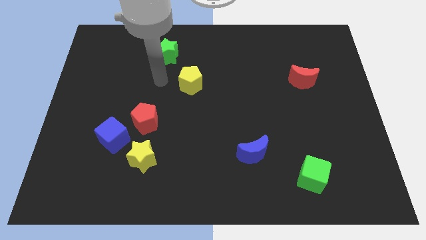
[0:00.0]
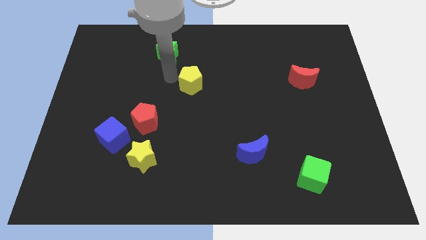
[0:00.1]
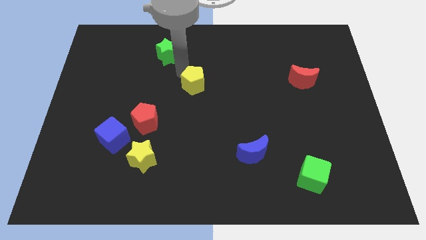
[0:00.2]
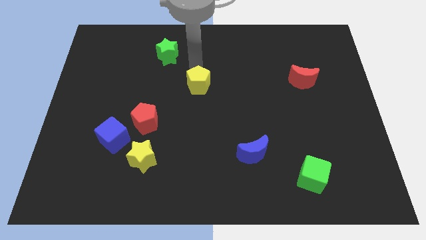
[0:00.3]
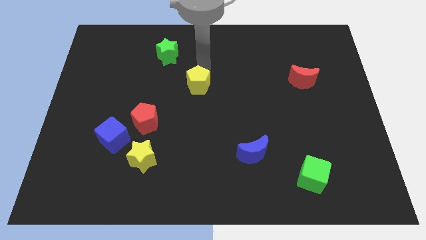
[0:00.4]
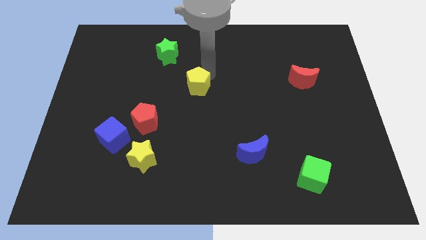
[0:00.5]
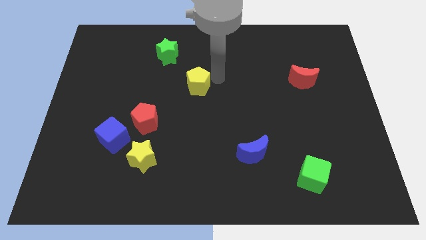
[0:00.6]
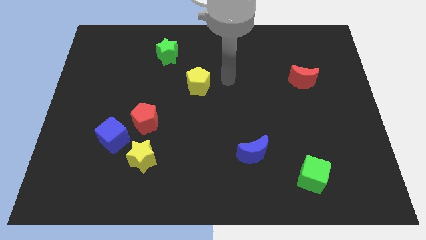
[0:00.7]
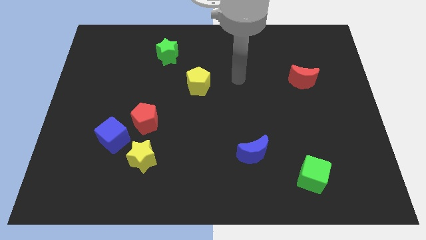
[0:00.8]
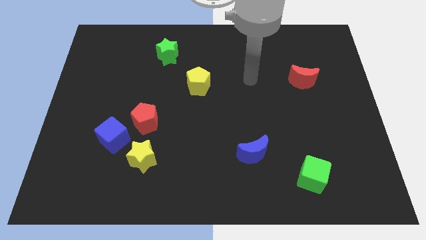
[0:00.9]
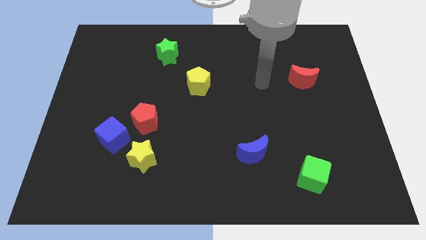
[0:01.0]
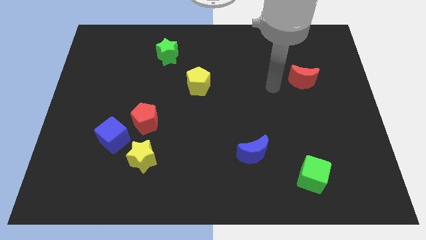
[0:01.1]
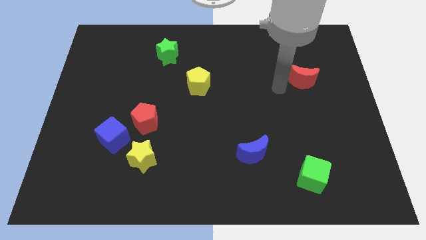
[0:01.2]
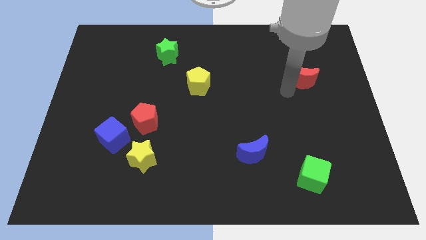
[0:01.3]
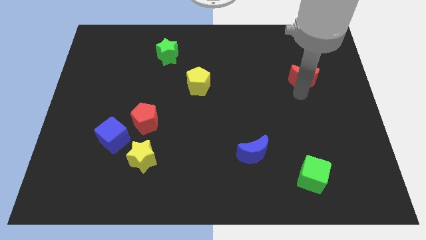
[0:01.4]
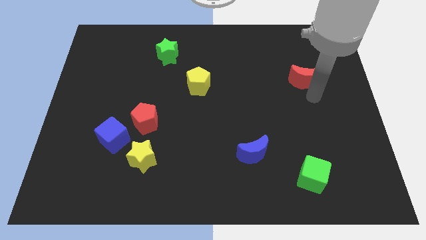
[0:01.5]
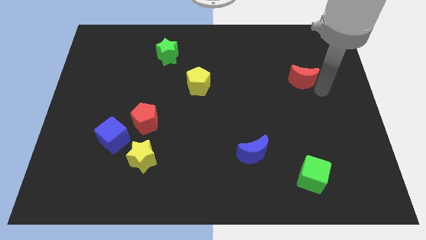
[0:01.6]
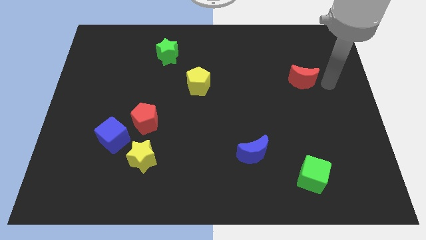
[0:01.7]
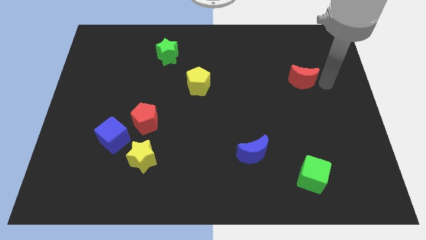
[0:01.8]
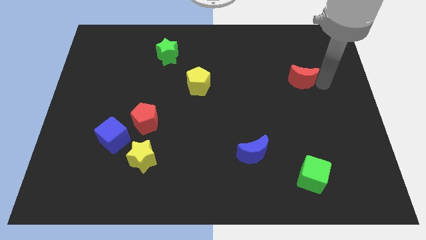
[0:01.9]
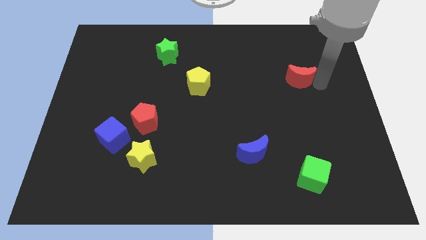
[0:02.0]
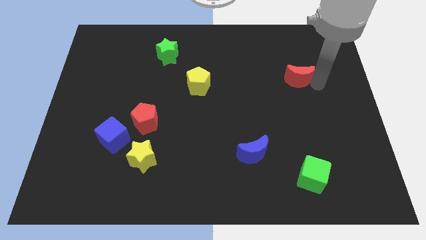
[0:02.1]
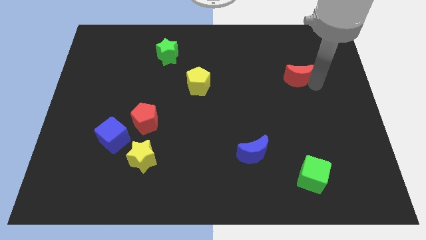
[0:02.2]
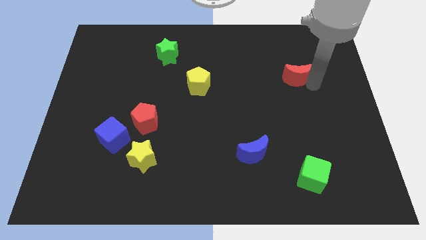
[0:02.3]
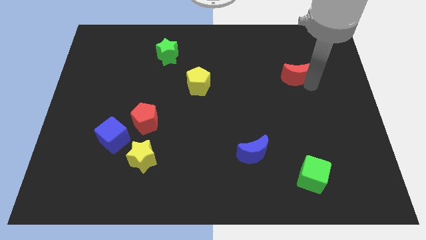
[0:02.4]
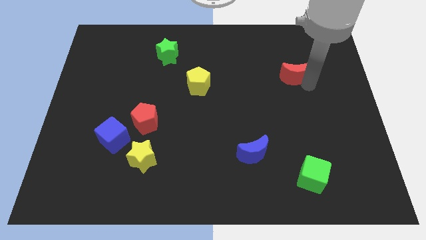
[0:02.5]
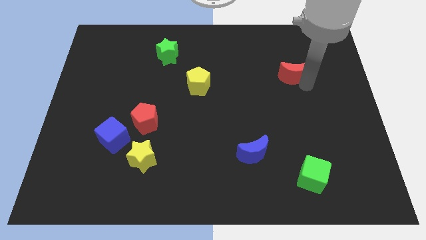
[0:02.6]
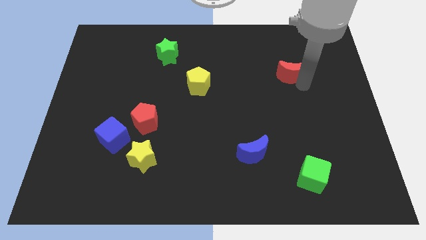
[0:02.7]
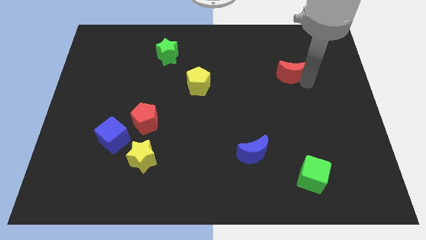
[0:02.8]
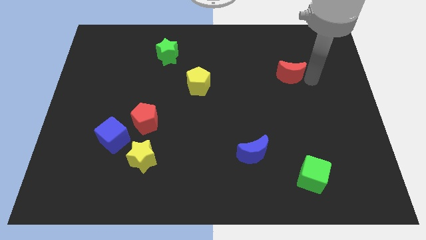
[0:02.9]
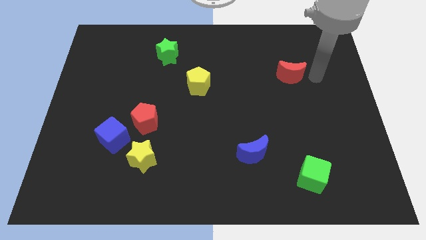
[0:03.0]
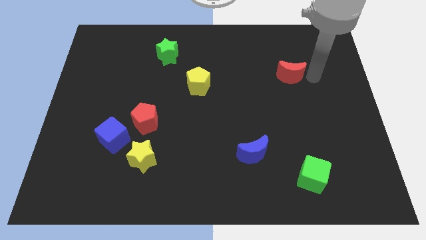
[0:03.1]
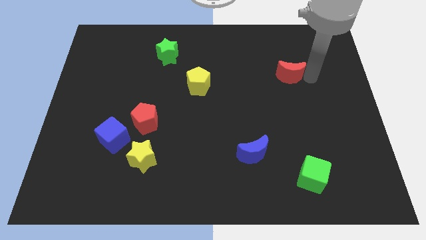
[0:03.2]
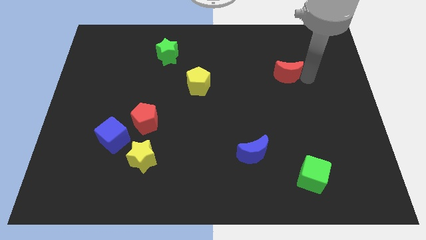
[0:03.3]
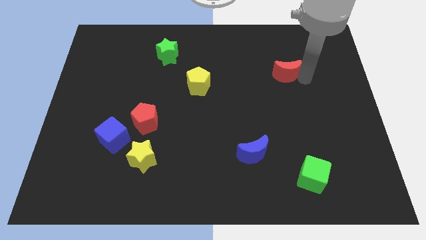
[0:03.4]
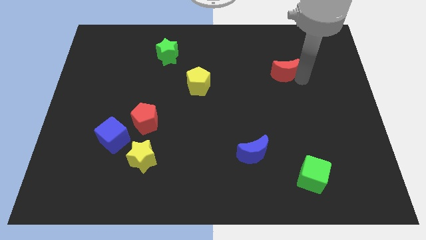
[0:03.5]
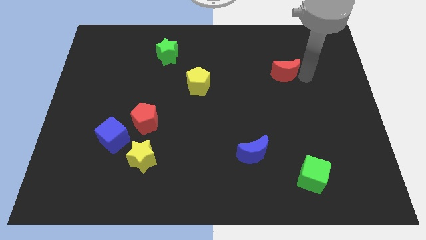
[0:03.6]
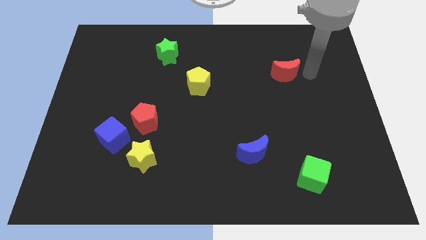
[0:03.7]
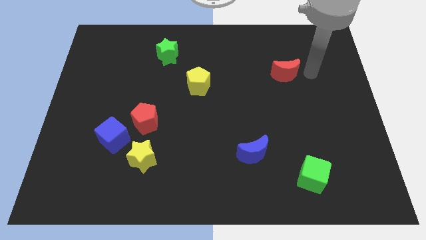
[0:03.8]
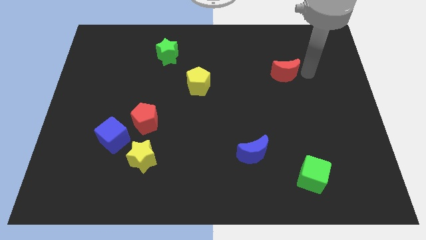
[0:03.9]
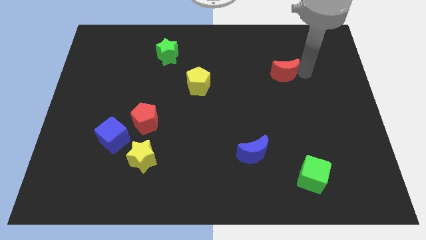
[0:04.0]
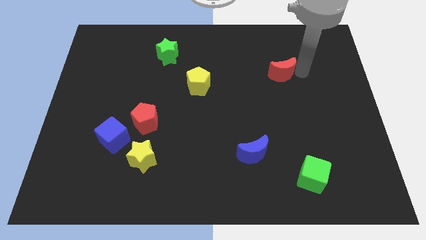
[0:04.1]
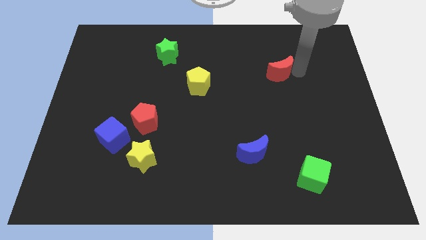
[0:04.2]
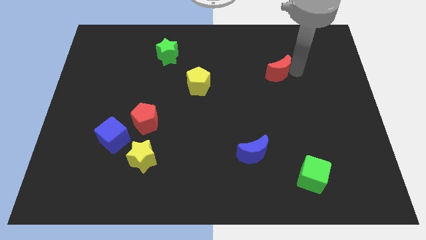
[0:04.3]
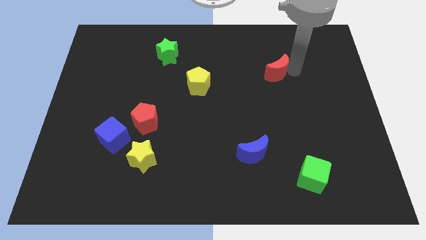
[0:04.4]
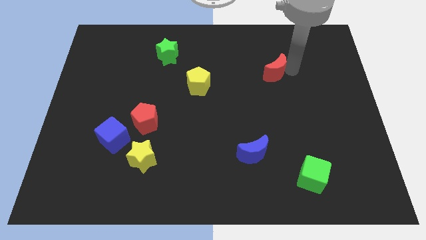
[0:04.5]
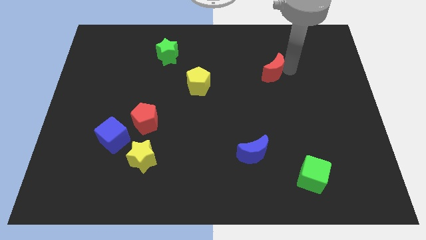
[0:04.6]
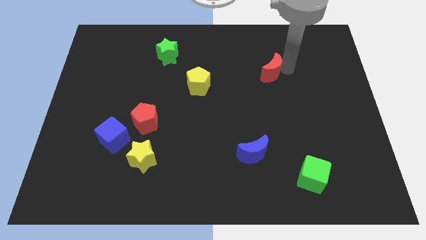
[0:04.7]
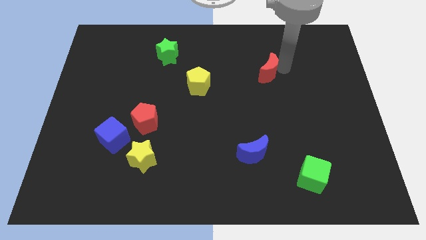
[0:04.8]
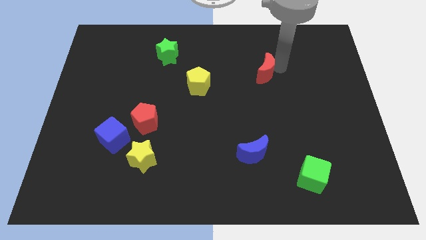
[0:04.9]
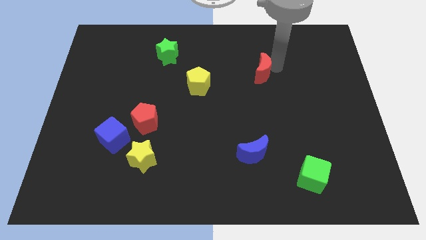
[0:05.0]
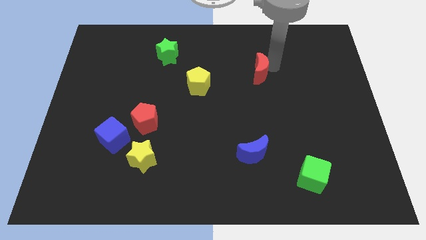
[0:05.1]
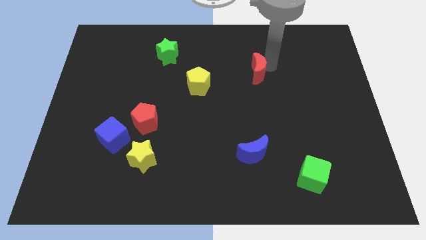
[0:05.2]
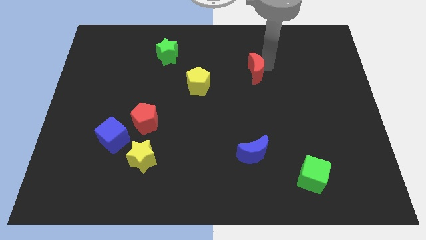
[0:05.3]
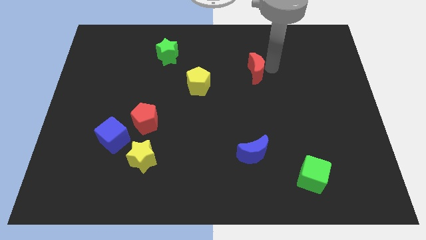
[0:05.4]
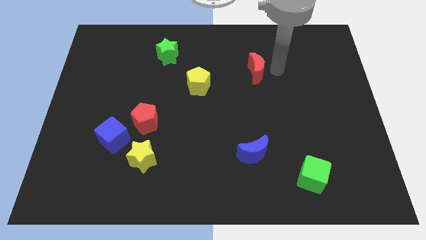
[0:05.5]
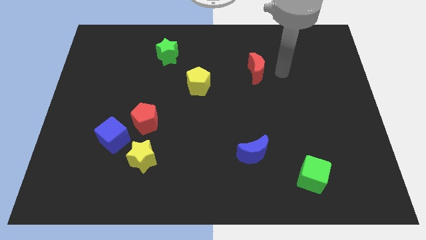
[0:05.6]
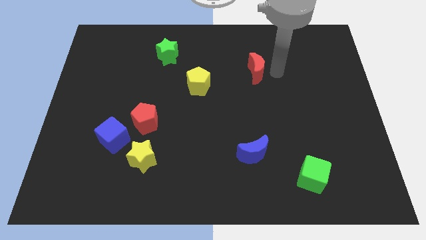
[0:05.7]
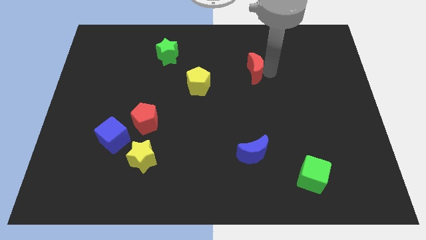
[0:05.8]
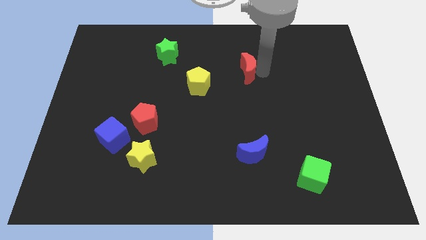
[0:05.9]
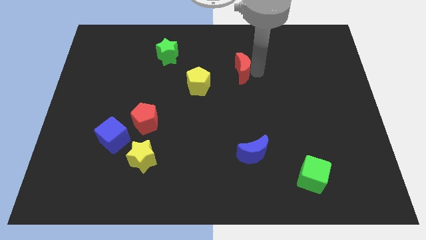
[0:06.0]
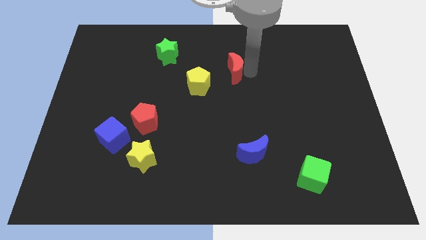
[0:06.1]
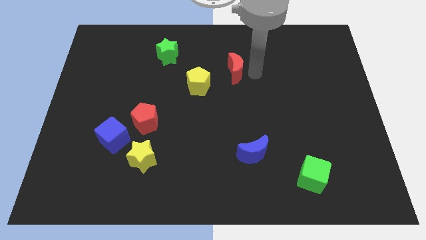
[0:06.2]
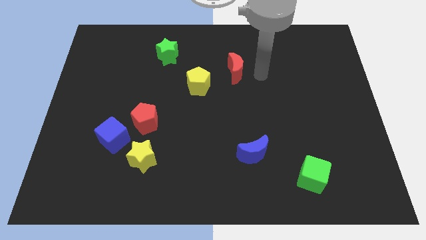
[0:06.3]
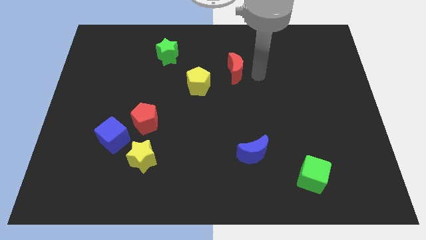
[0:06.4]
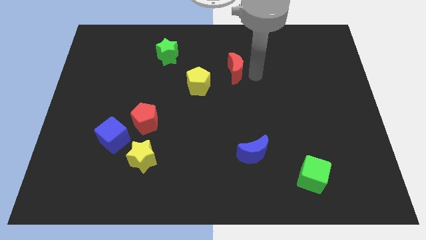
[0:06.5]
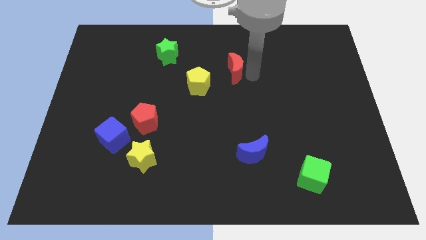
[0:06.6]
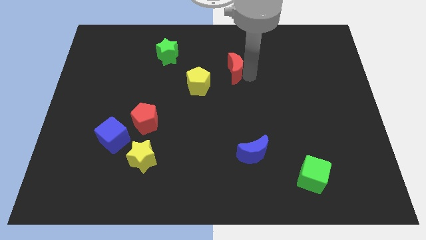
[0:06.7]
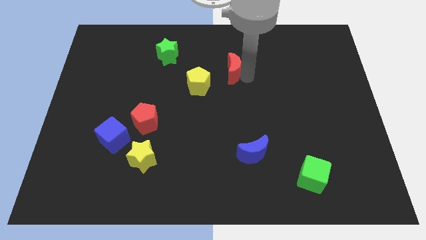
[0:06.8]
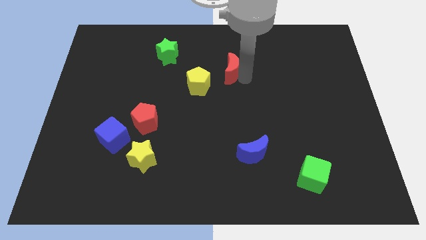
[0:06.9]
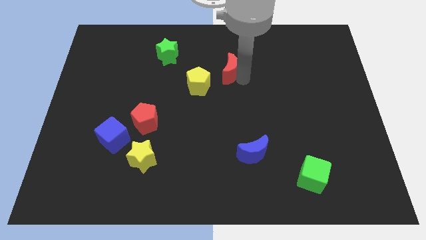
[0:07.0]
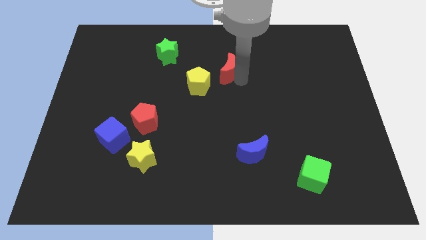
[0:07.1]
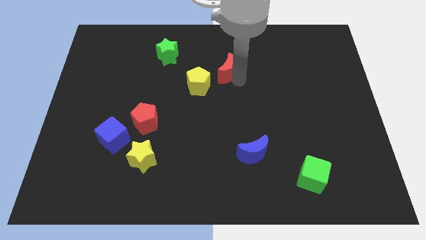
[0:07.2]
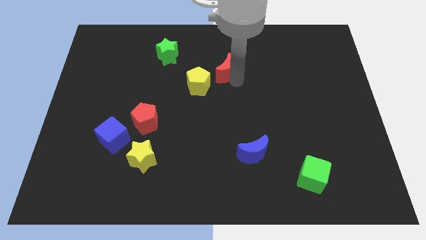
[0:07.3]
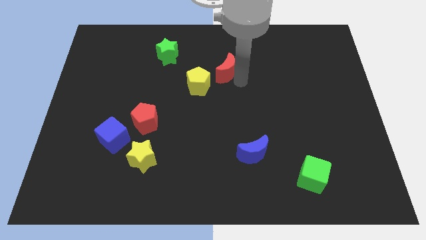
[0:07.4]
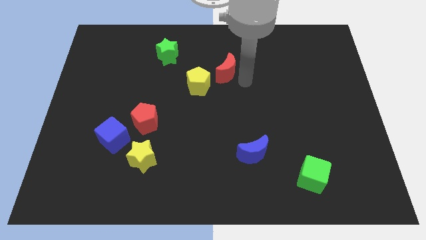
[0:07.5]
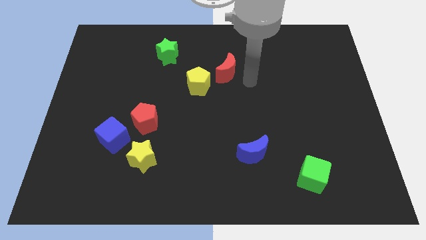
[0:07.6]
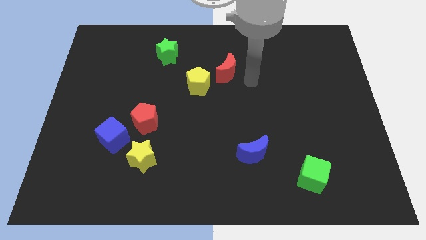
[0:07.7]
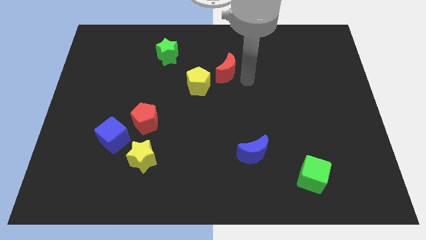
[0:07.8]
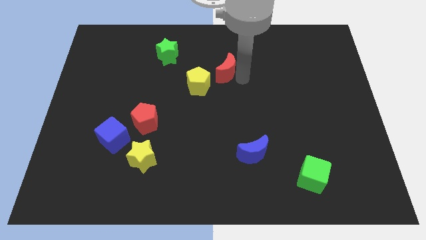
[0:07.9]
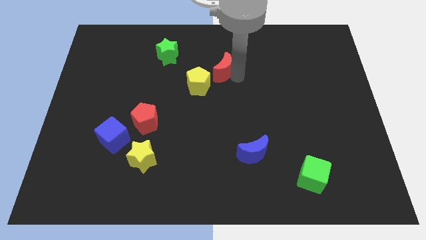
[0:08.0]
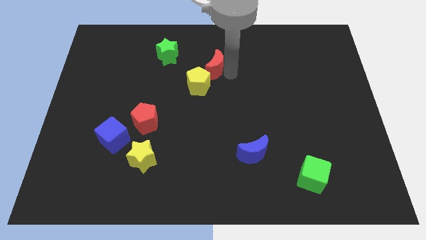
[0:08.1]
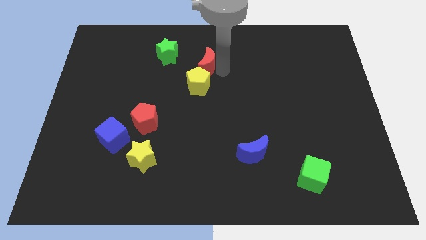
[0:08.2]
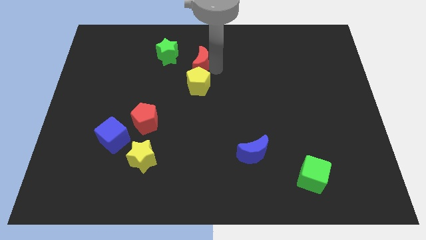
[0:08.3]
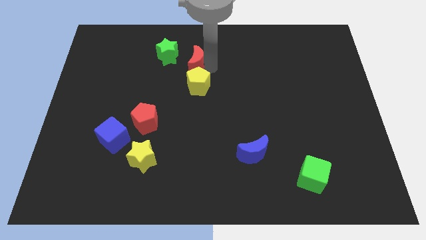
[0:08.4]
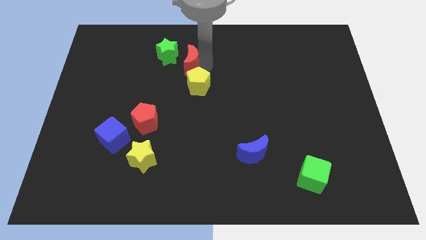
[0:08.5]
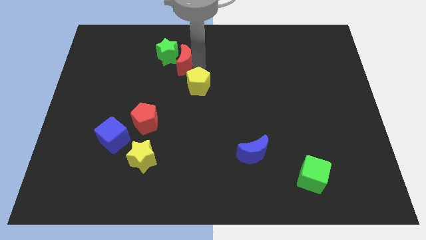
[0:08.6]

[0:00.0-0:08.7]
put the red moon next to the green star
